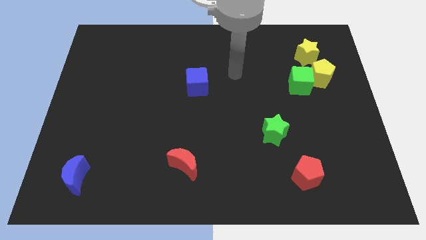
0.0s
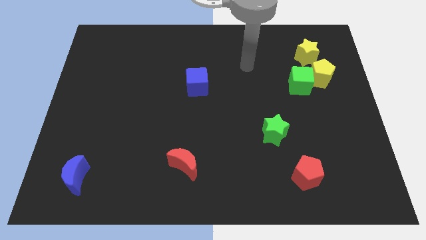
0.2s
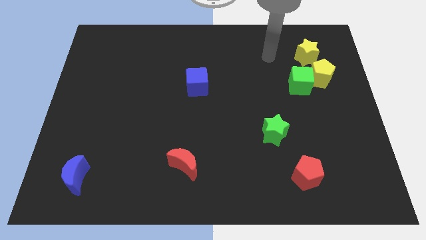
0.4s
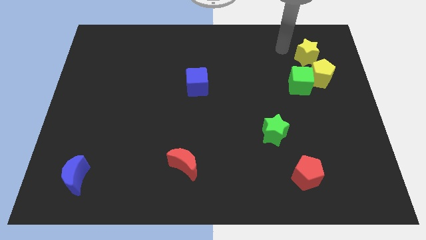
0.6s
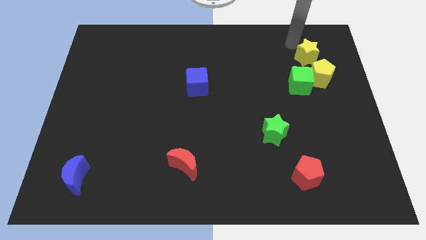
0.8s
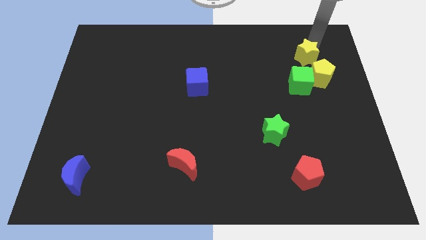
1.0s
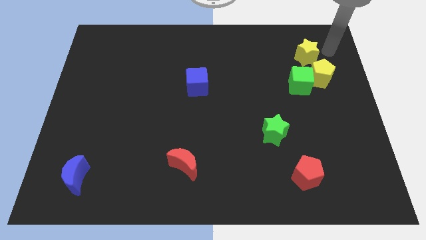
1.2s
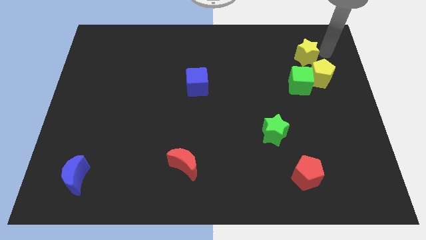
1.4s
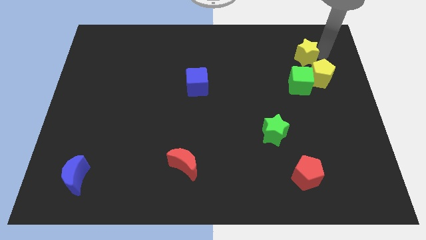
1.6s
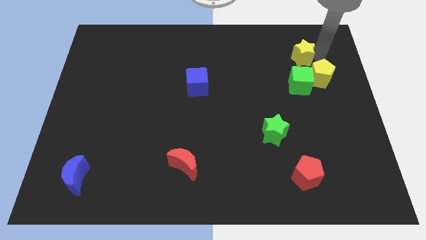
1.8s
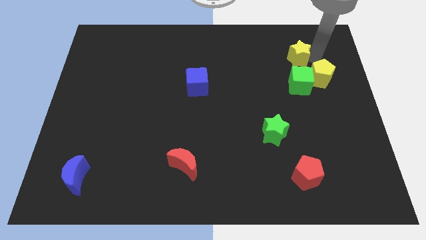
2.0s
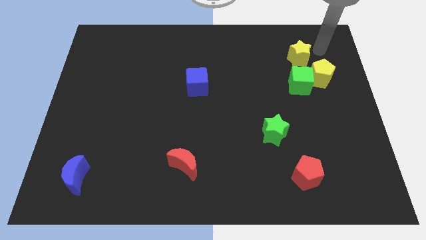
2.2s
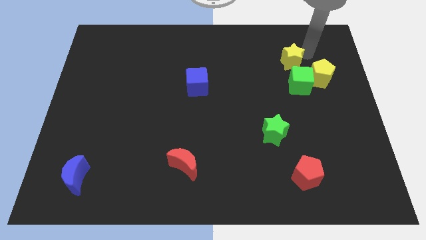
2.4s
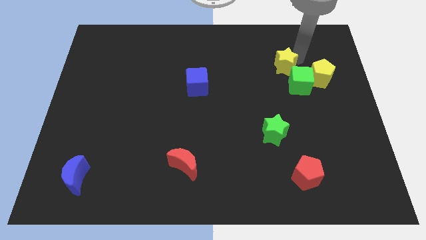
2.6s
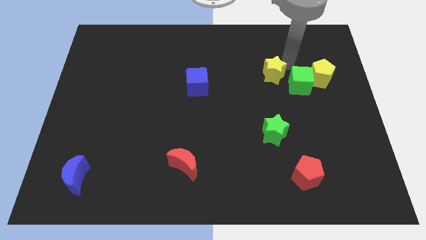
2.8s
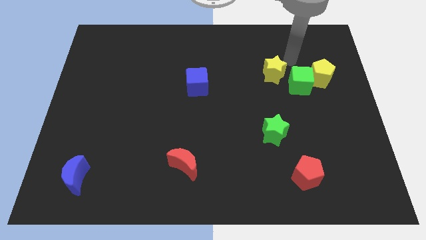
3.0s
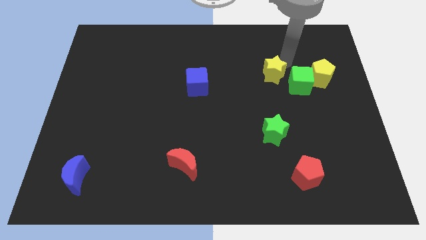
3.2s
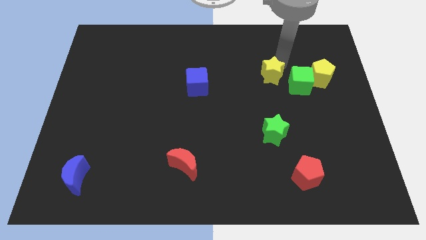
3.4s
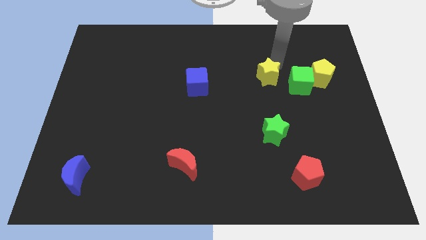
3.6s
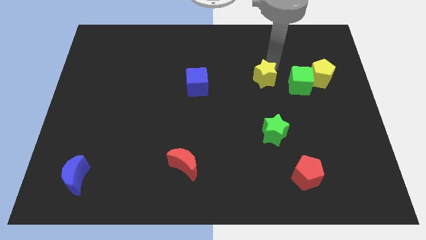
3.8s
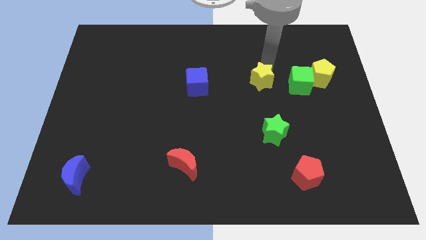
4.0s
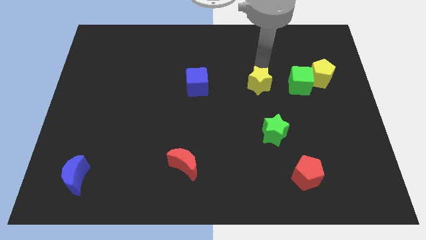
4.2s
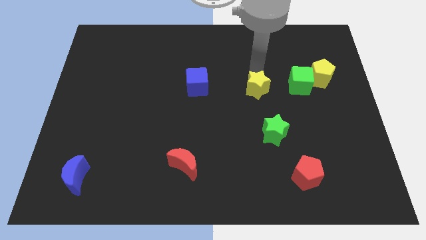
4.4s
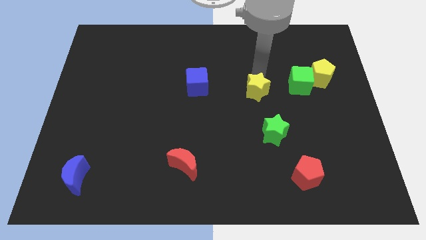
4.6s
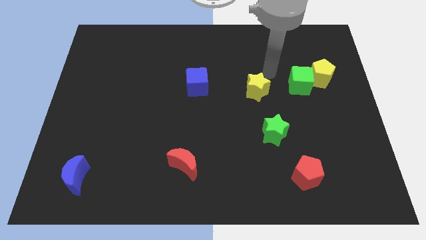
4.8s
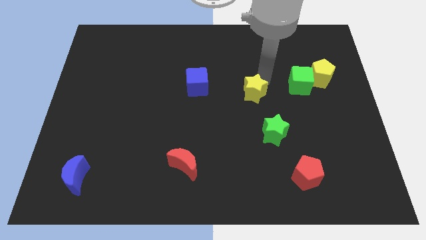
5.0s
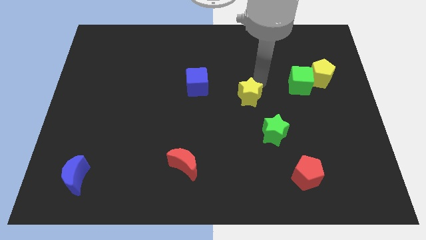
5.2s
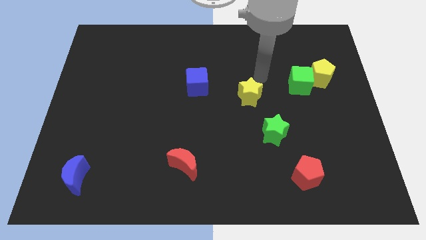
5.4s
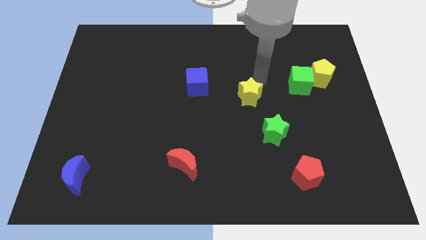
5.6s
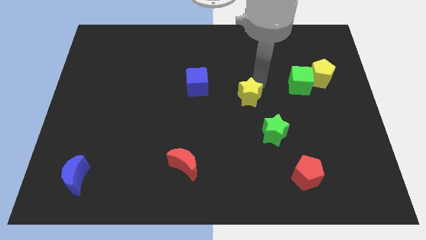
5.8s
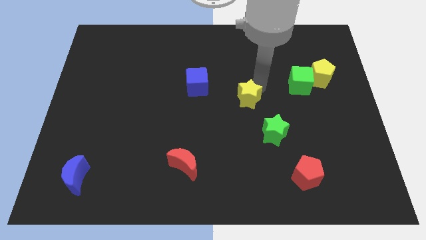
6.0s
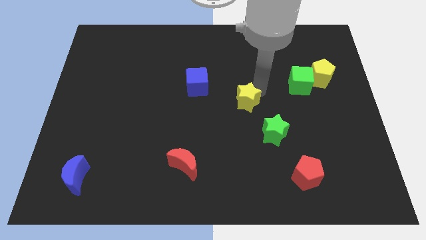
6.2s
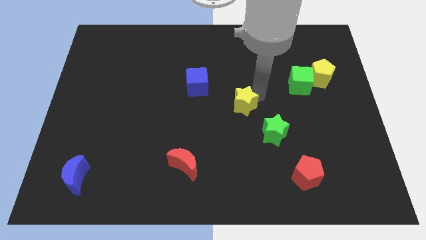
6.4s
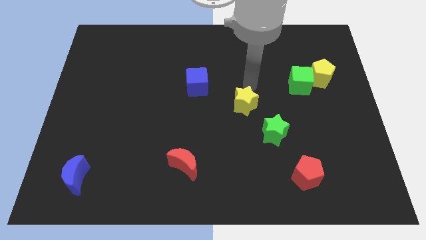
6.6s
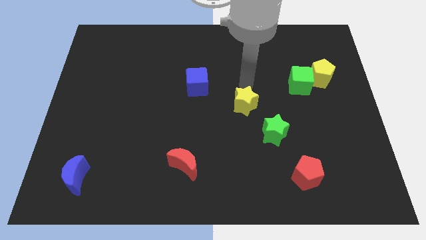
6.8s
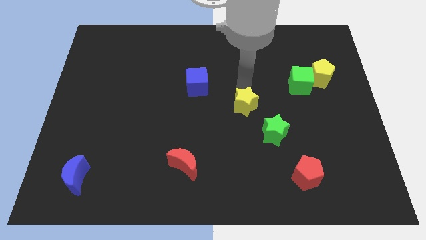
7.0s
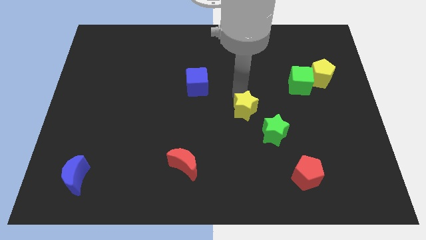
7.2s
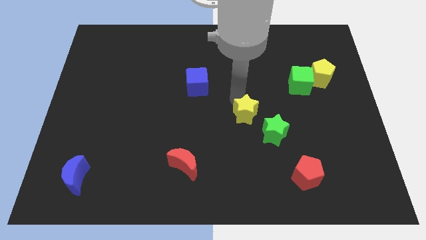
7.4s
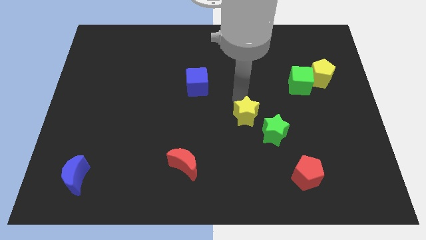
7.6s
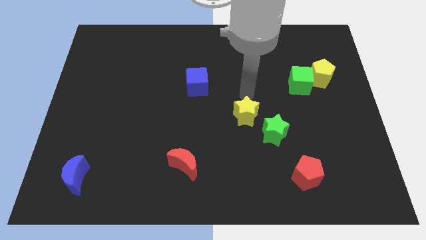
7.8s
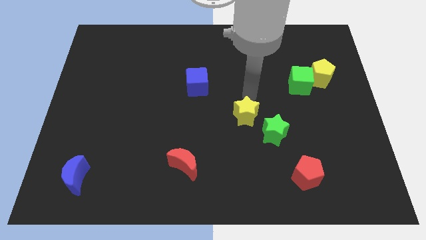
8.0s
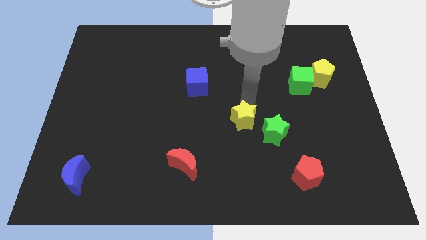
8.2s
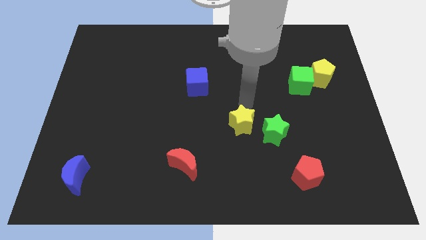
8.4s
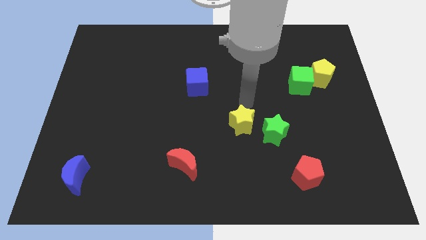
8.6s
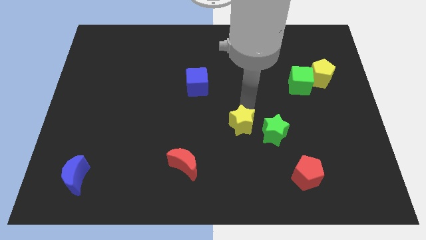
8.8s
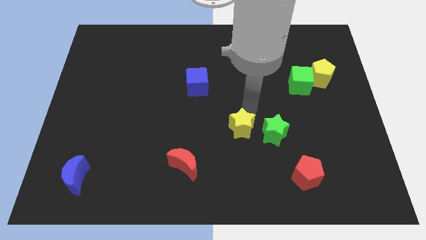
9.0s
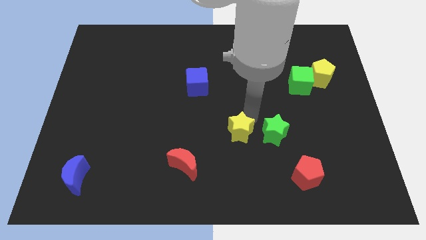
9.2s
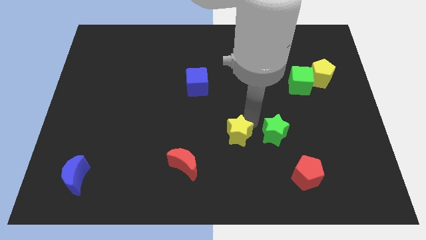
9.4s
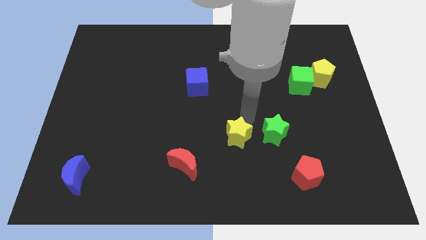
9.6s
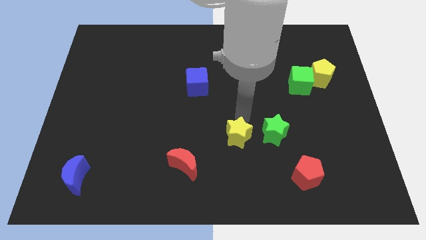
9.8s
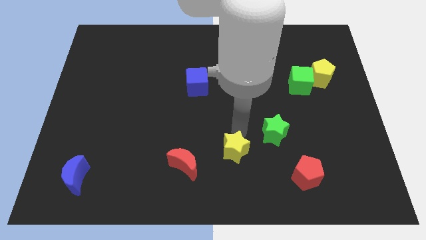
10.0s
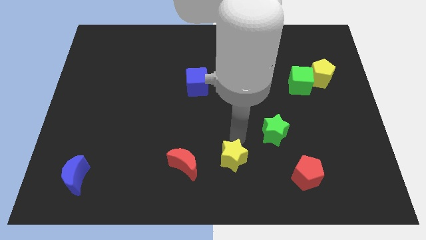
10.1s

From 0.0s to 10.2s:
slide the yellow star to the bottom

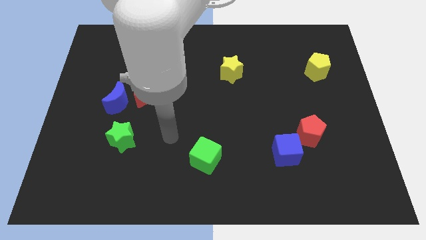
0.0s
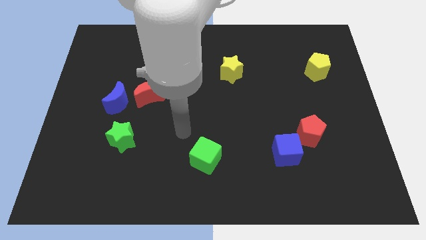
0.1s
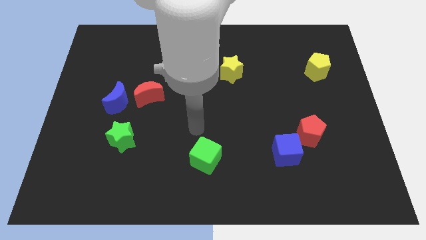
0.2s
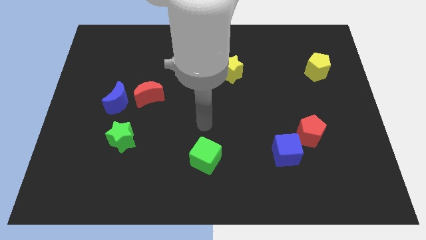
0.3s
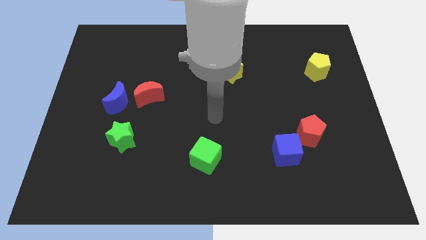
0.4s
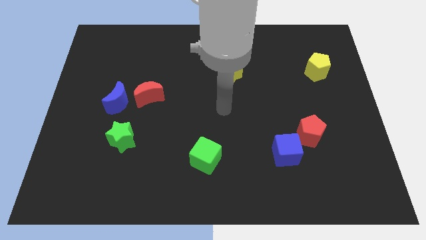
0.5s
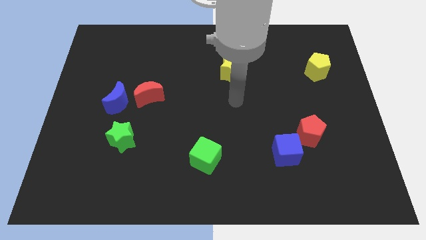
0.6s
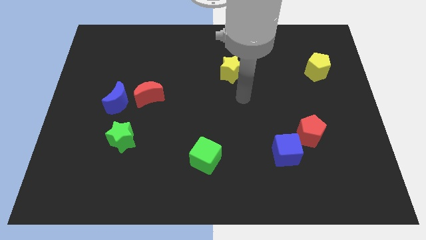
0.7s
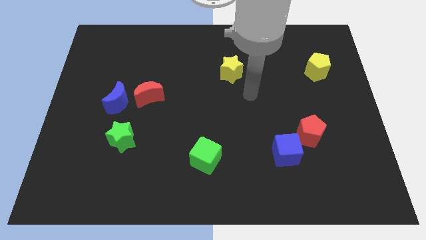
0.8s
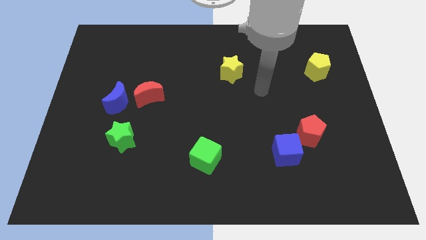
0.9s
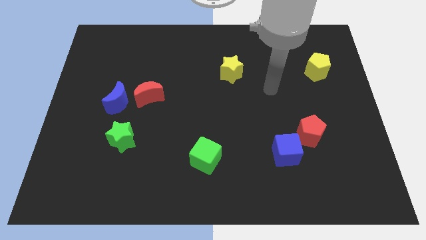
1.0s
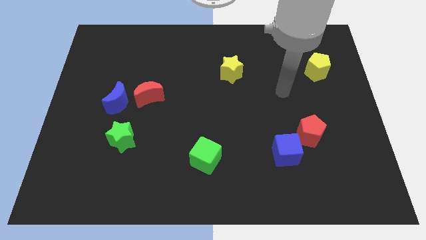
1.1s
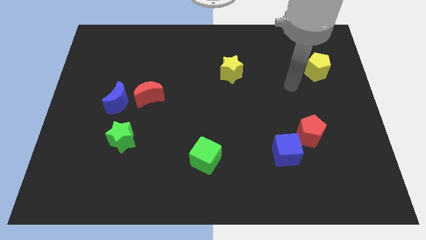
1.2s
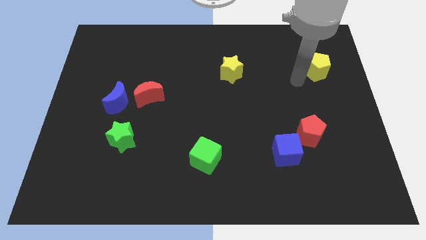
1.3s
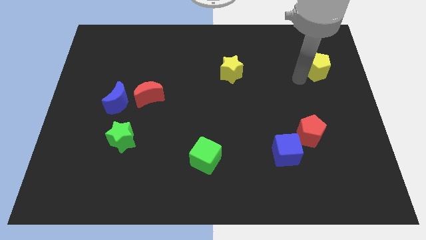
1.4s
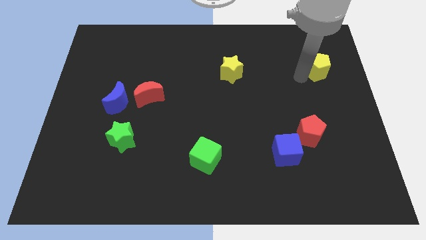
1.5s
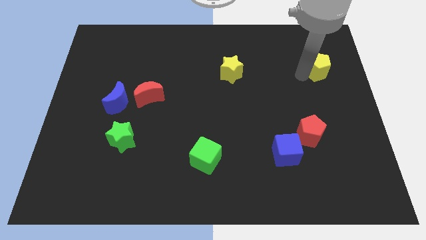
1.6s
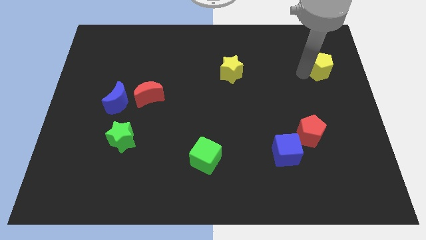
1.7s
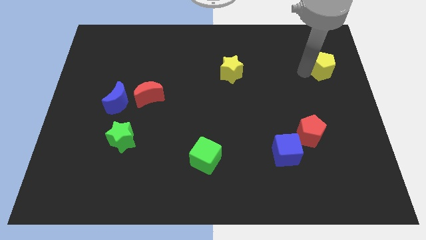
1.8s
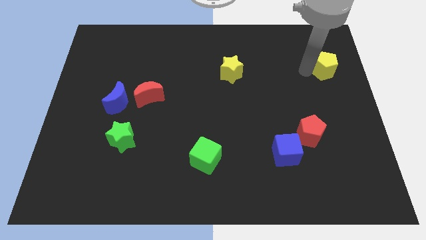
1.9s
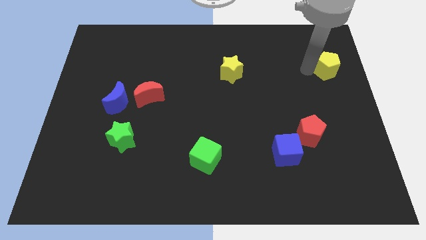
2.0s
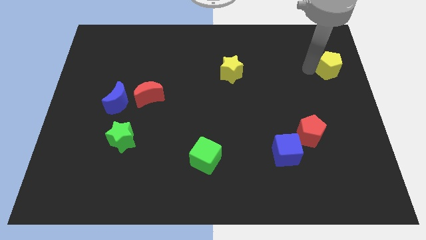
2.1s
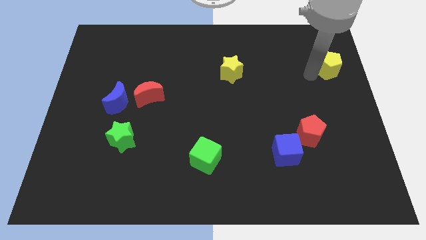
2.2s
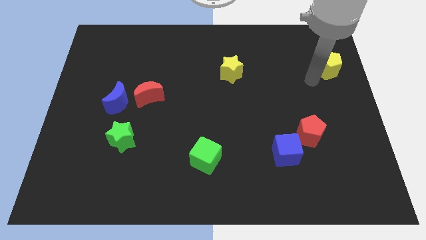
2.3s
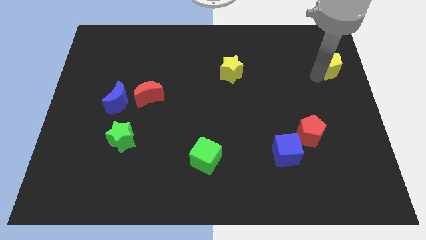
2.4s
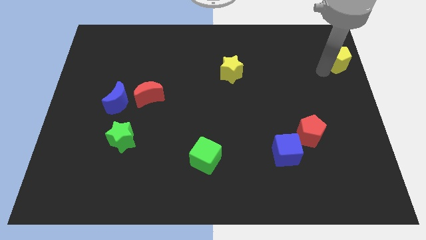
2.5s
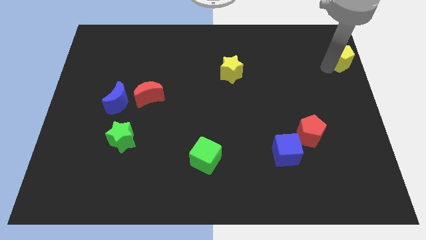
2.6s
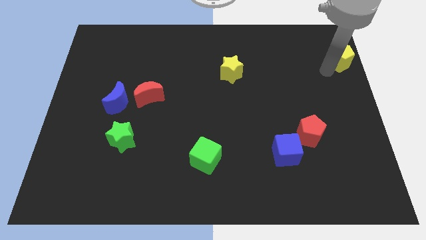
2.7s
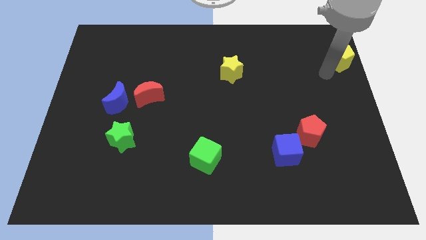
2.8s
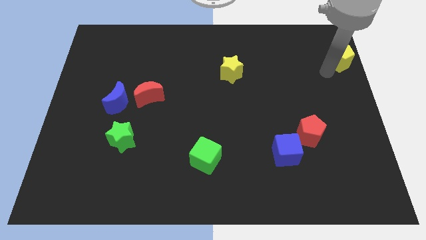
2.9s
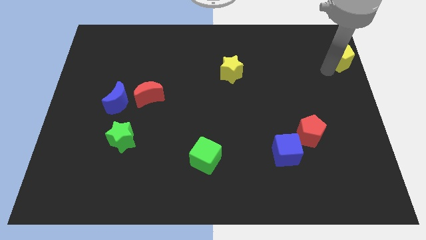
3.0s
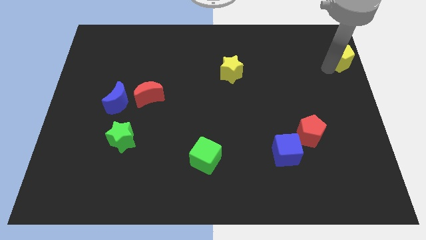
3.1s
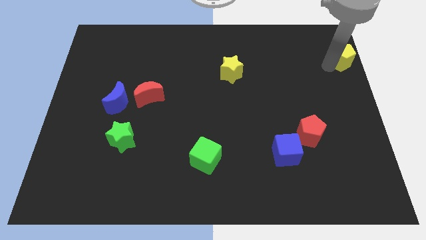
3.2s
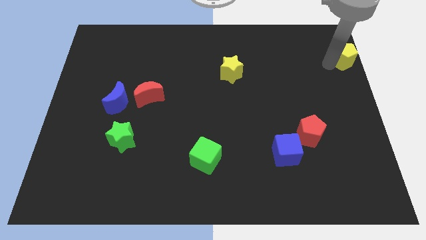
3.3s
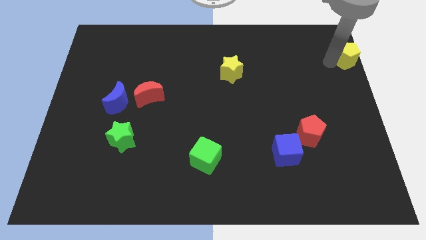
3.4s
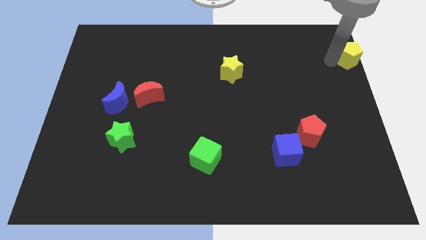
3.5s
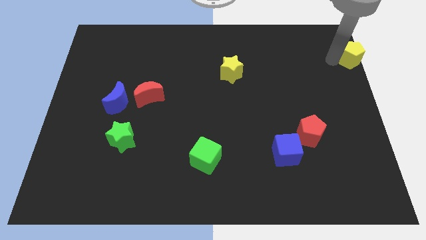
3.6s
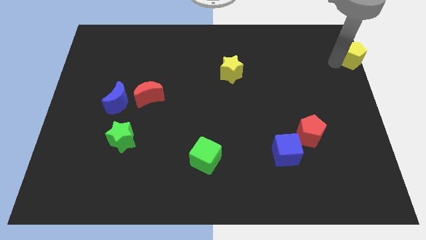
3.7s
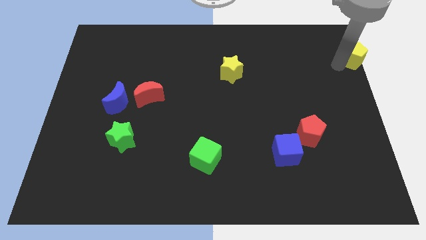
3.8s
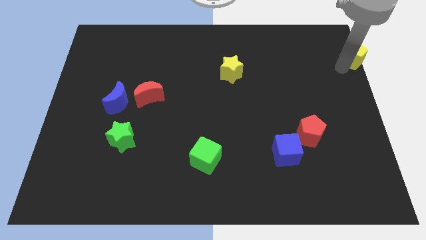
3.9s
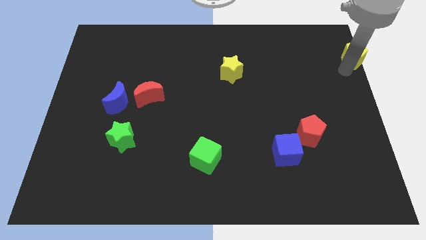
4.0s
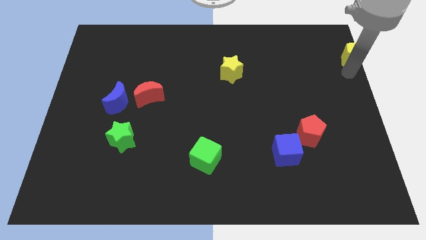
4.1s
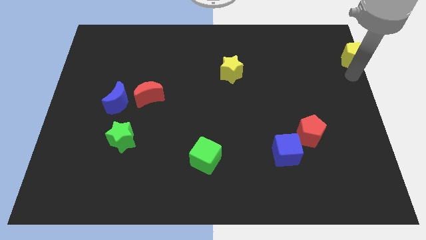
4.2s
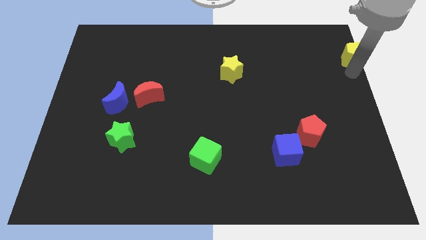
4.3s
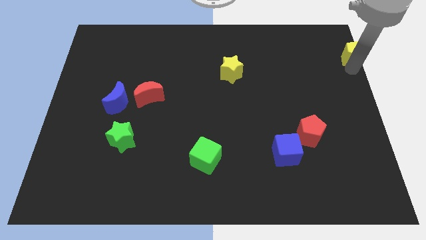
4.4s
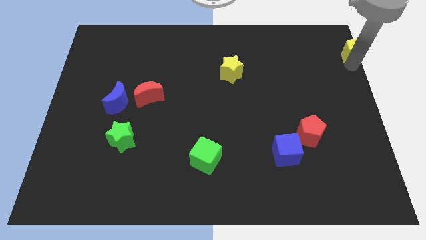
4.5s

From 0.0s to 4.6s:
slide the yellow pentagon to the top right of the board
